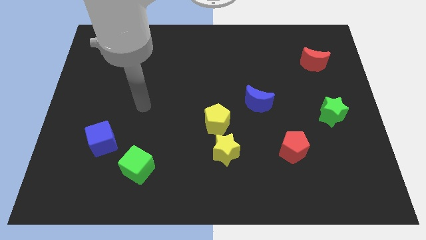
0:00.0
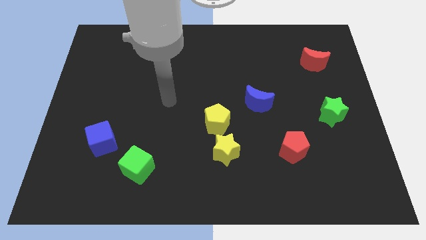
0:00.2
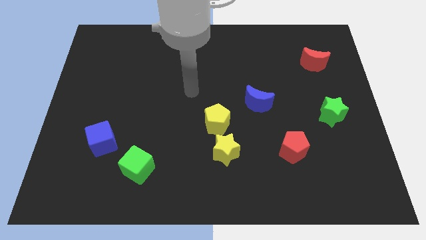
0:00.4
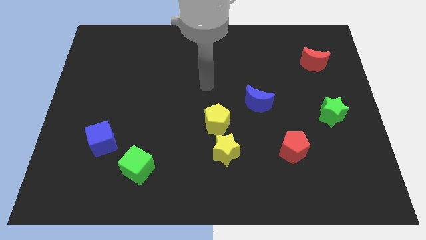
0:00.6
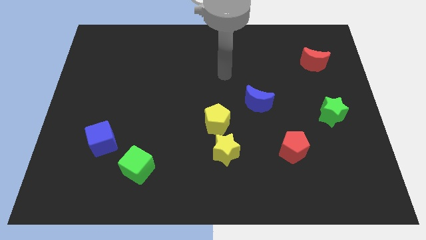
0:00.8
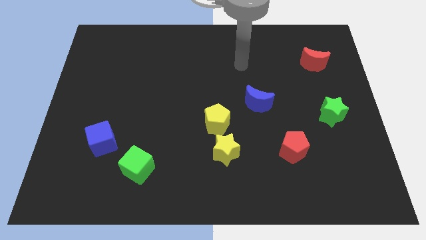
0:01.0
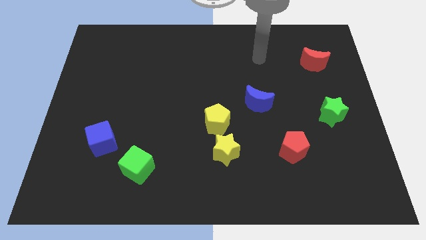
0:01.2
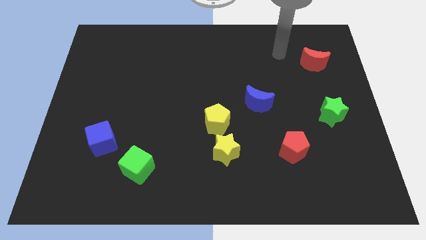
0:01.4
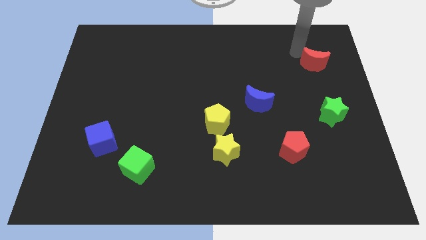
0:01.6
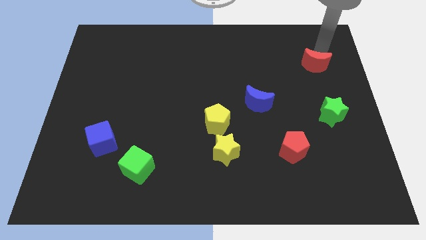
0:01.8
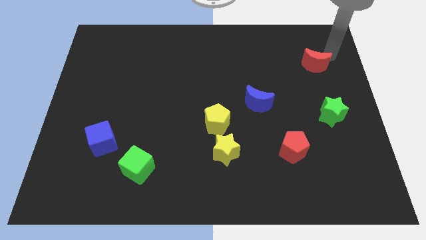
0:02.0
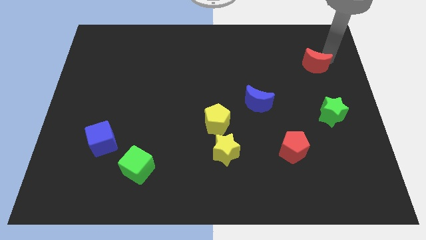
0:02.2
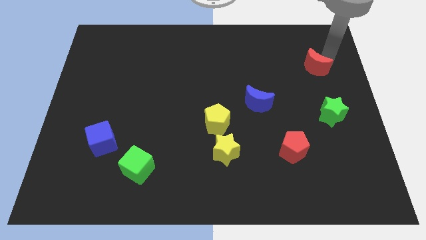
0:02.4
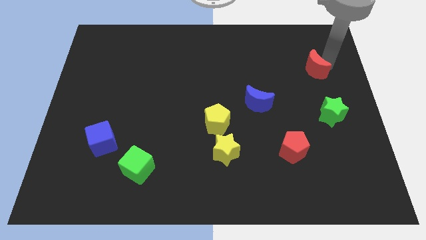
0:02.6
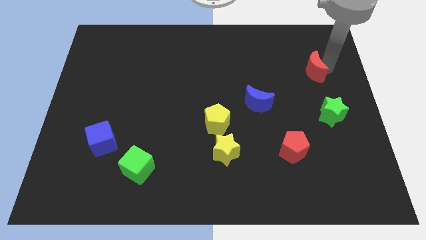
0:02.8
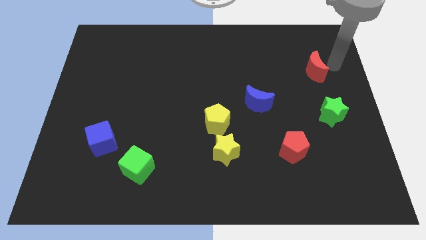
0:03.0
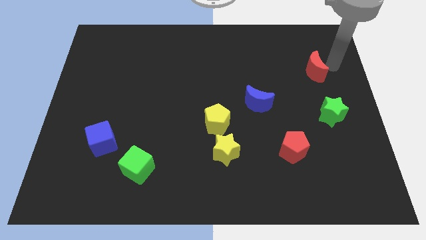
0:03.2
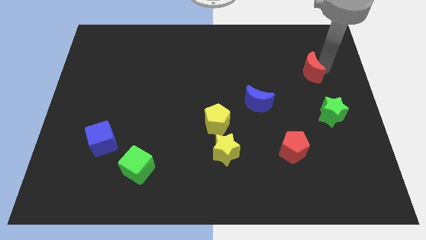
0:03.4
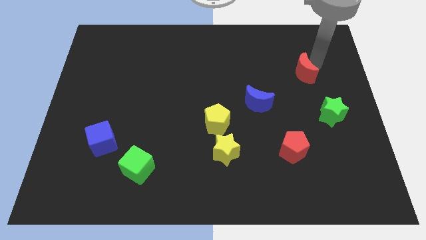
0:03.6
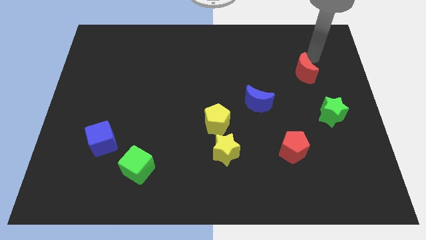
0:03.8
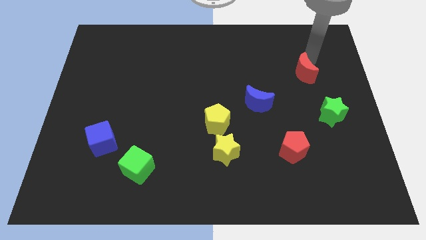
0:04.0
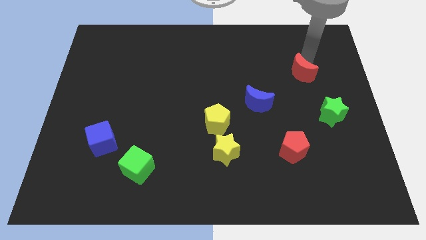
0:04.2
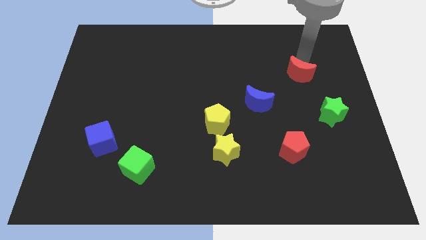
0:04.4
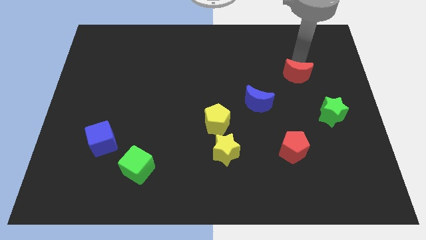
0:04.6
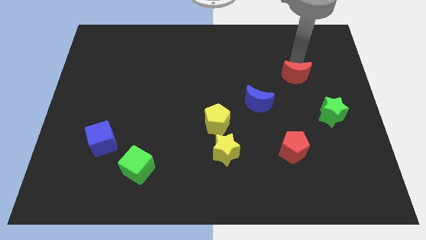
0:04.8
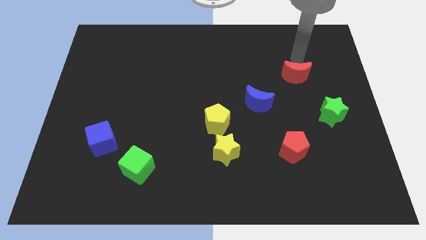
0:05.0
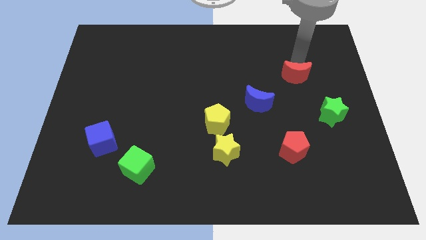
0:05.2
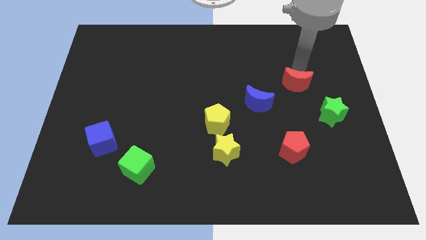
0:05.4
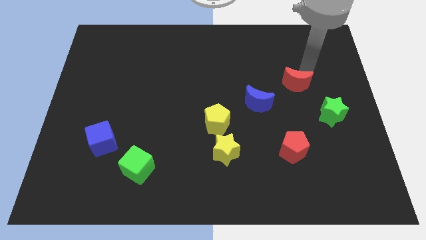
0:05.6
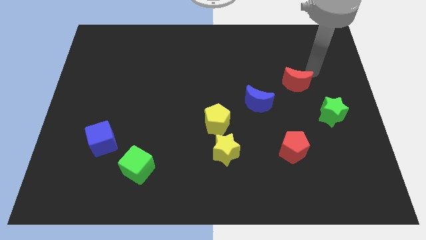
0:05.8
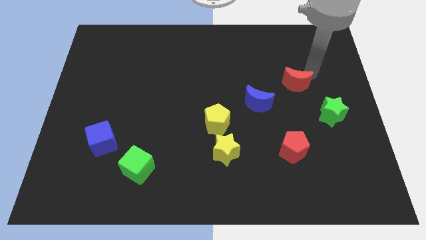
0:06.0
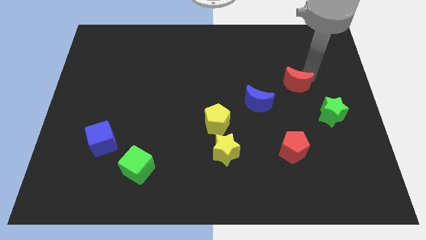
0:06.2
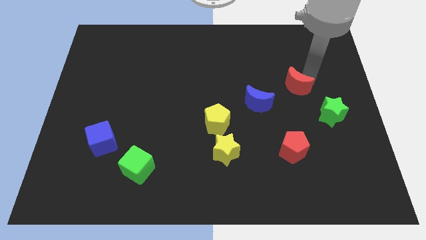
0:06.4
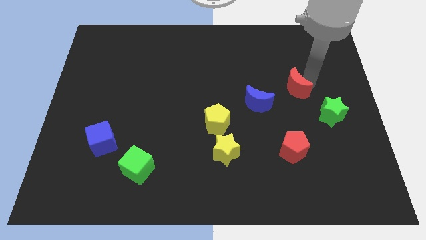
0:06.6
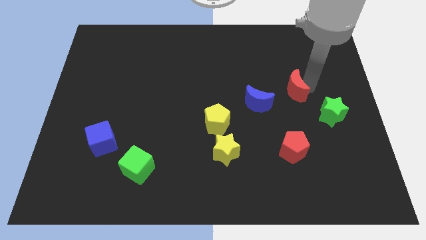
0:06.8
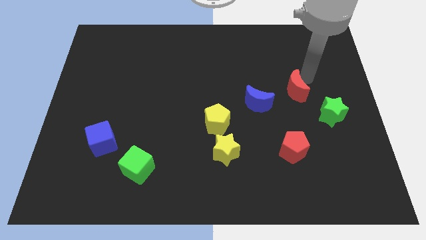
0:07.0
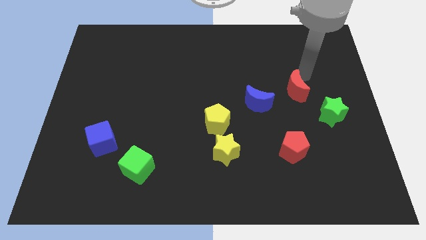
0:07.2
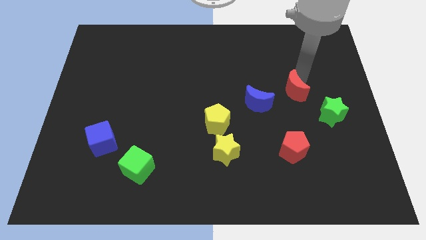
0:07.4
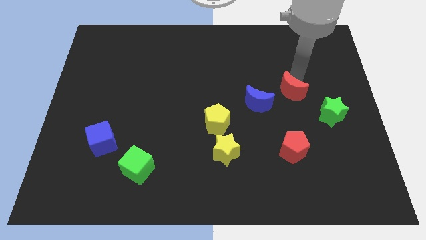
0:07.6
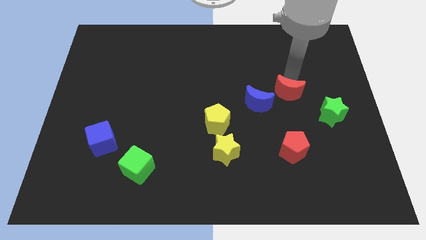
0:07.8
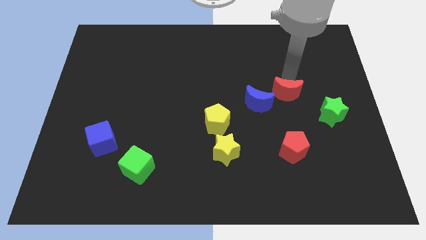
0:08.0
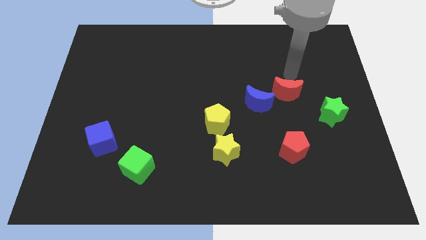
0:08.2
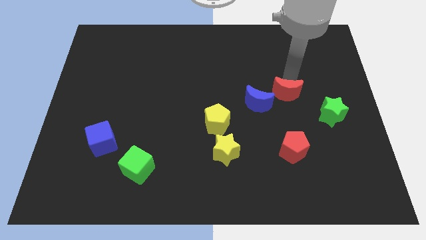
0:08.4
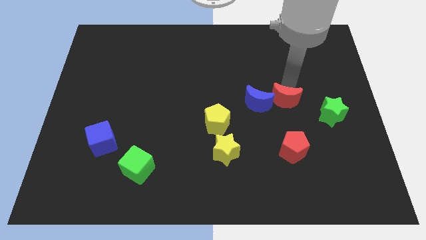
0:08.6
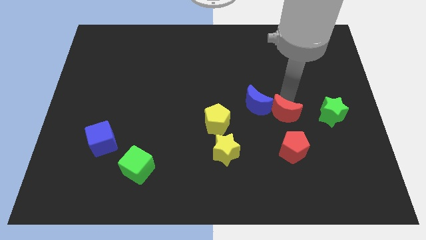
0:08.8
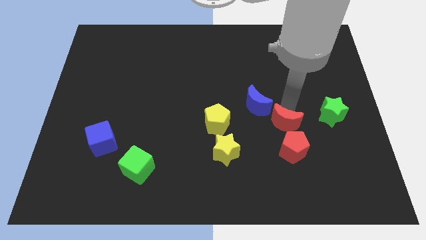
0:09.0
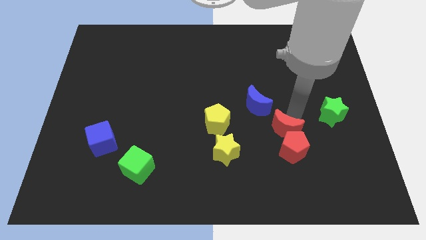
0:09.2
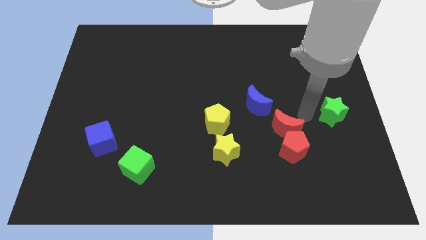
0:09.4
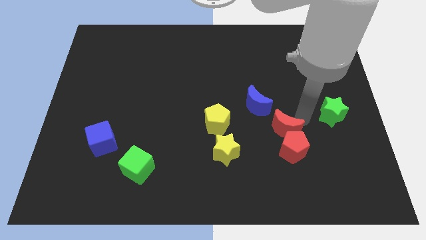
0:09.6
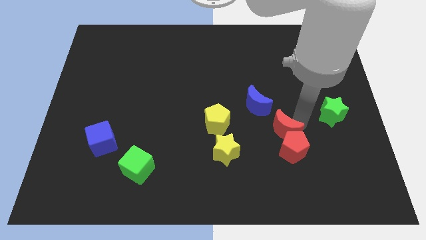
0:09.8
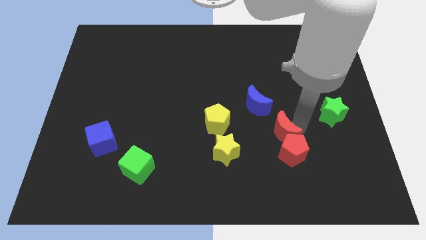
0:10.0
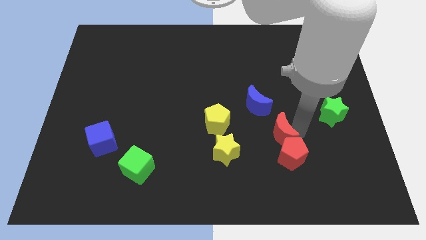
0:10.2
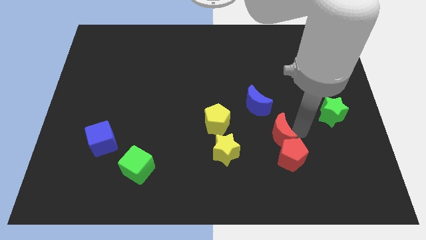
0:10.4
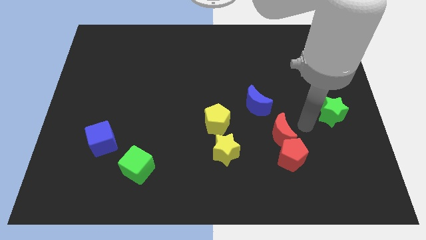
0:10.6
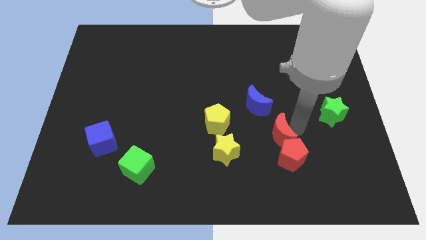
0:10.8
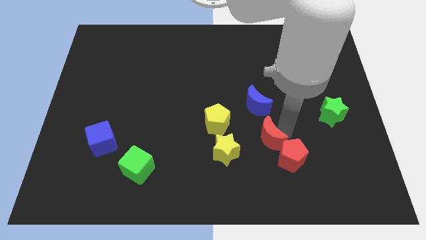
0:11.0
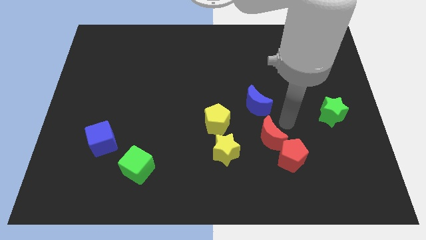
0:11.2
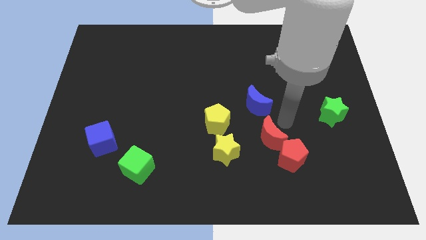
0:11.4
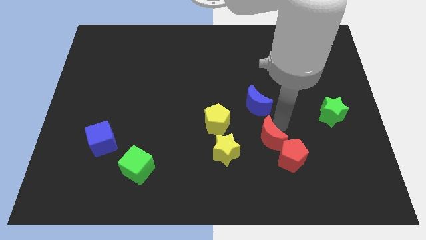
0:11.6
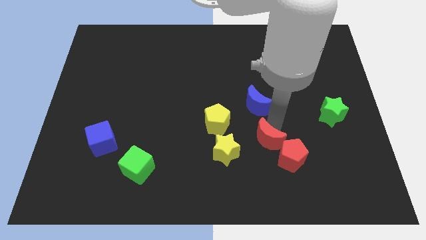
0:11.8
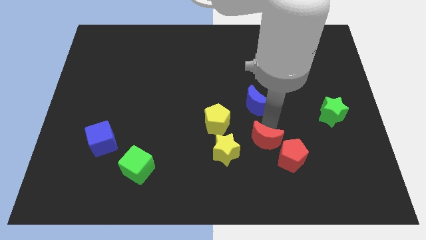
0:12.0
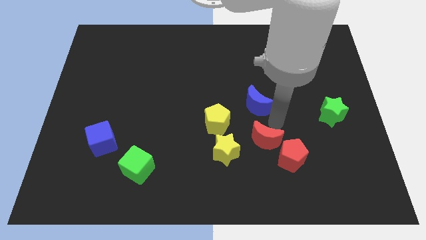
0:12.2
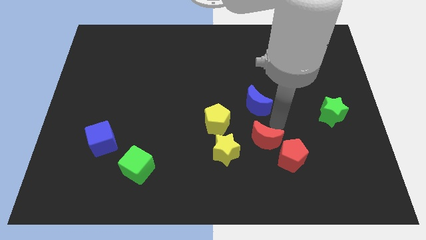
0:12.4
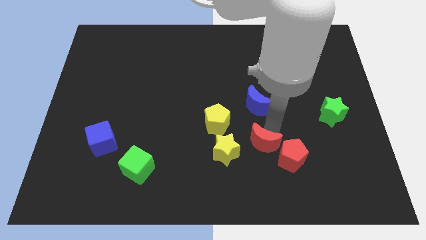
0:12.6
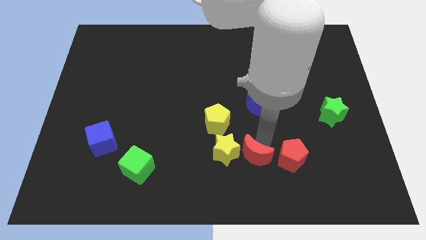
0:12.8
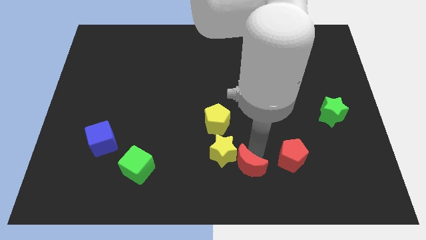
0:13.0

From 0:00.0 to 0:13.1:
slide the red moon to the bottom side
